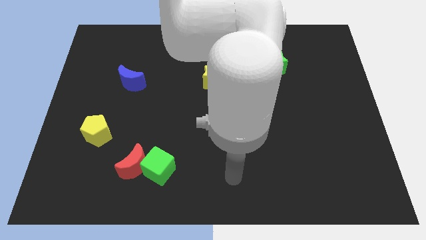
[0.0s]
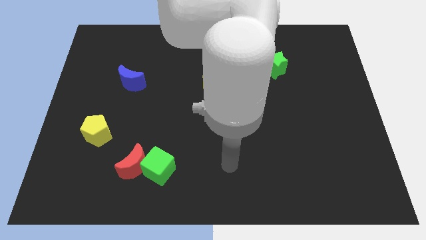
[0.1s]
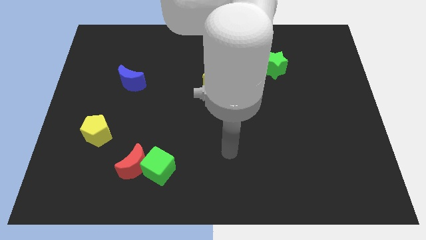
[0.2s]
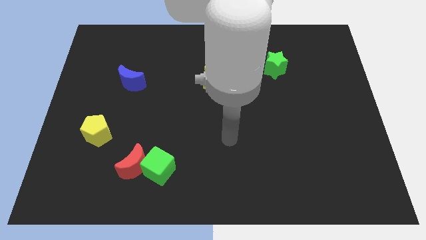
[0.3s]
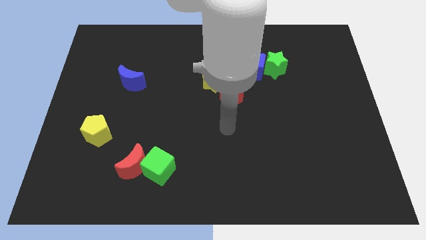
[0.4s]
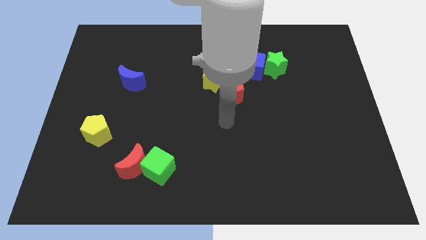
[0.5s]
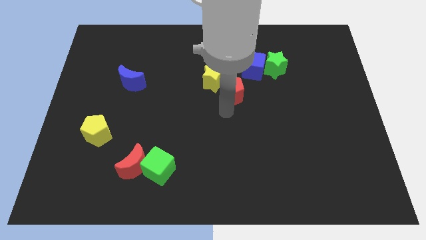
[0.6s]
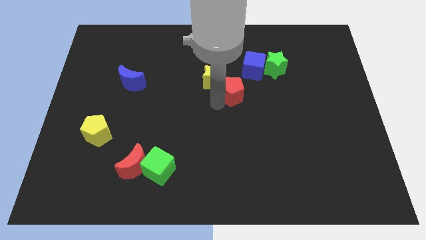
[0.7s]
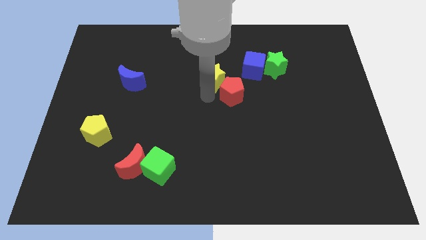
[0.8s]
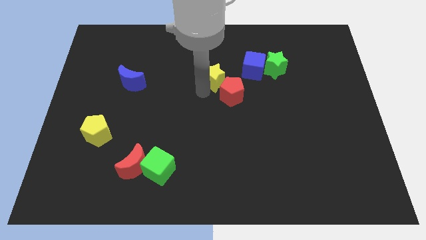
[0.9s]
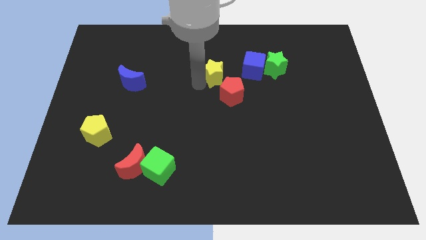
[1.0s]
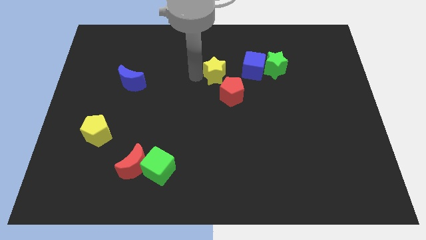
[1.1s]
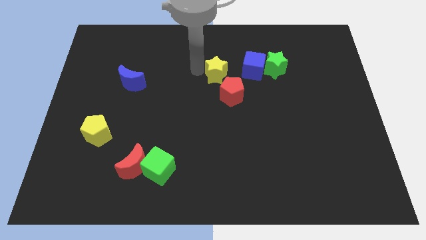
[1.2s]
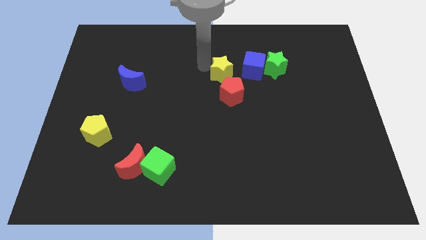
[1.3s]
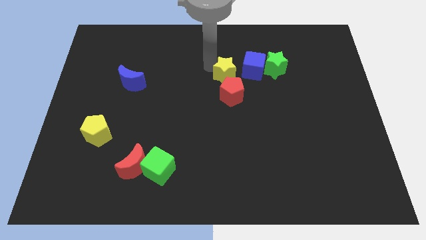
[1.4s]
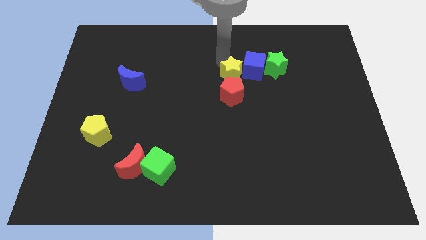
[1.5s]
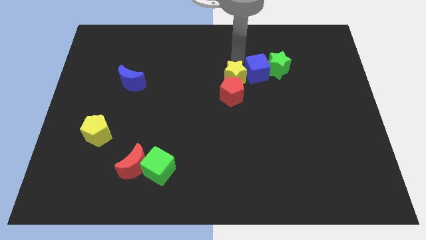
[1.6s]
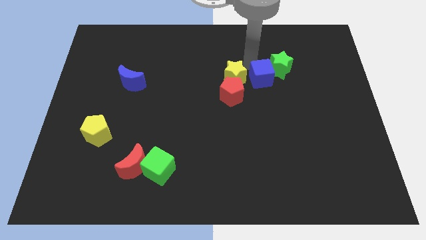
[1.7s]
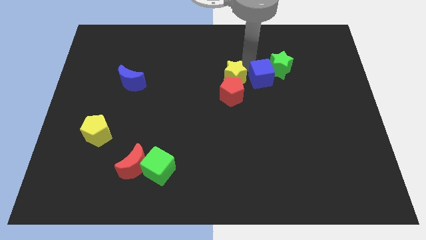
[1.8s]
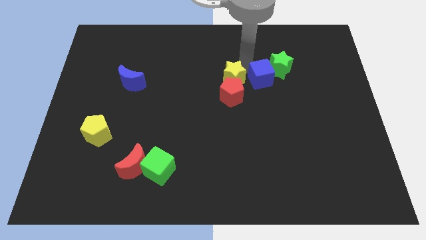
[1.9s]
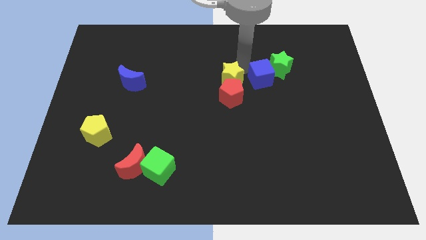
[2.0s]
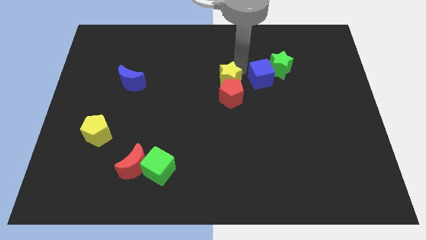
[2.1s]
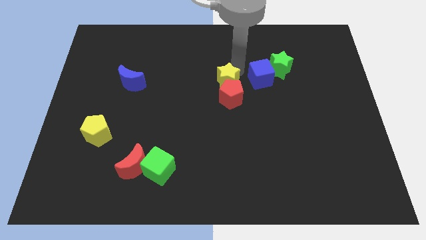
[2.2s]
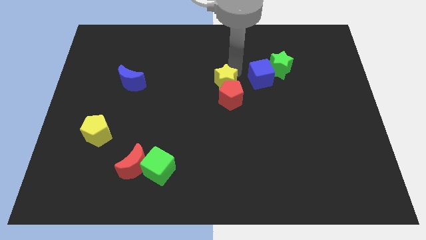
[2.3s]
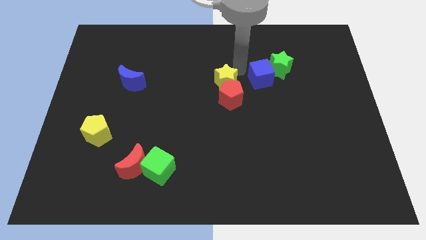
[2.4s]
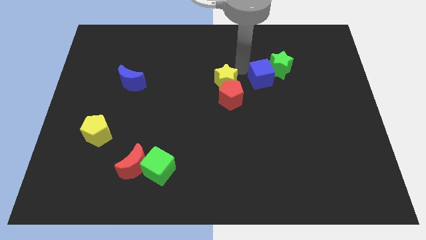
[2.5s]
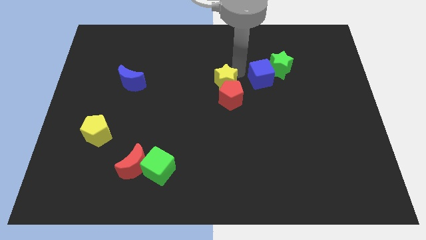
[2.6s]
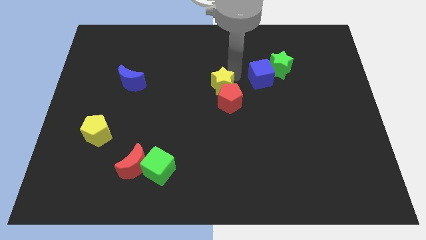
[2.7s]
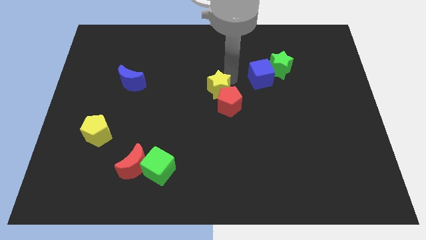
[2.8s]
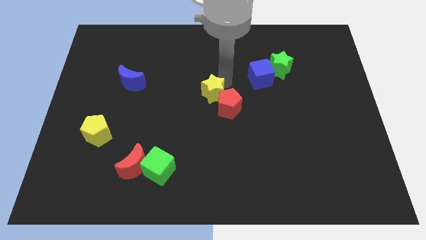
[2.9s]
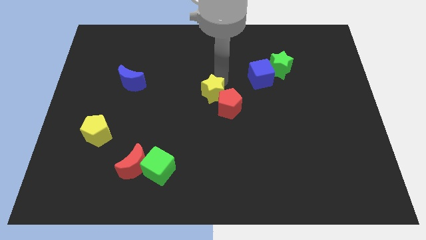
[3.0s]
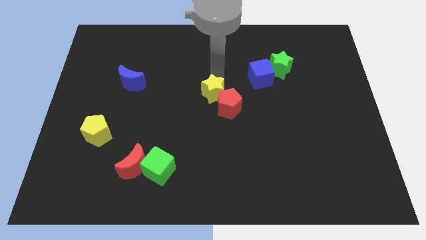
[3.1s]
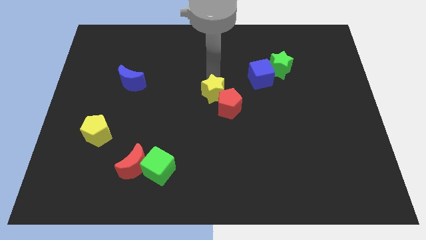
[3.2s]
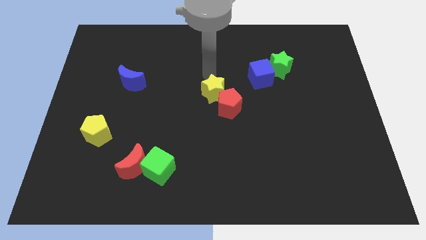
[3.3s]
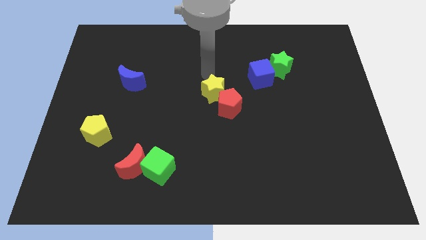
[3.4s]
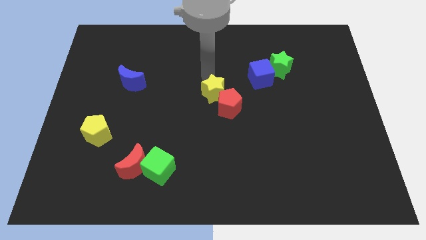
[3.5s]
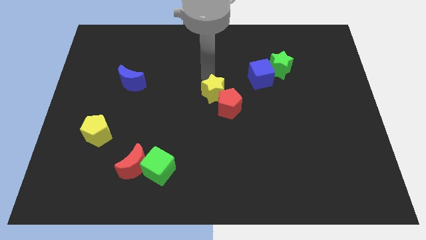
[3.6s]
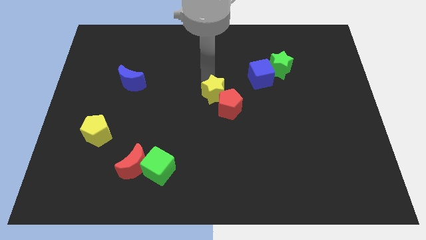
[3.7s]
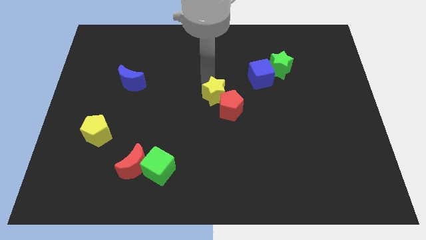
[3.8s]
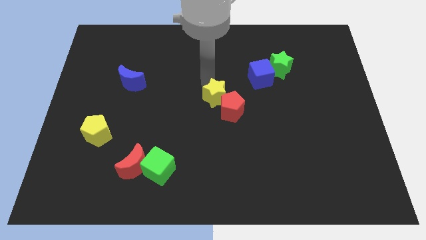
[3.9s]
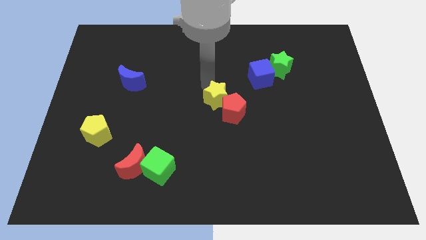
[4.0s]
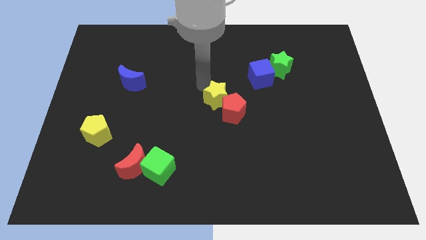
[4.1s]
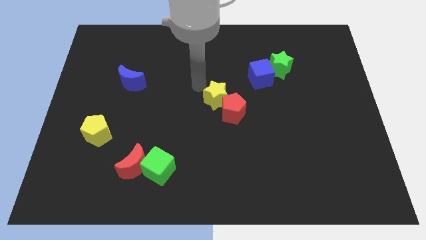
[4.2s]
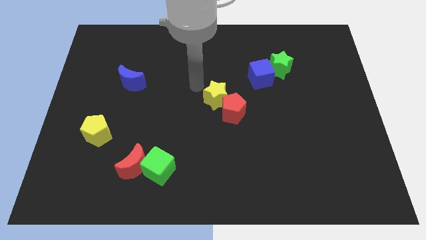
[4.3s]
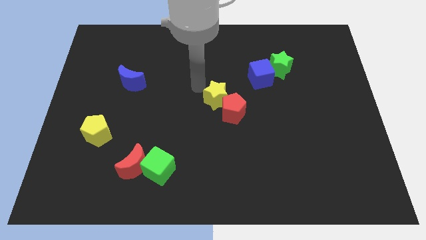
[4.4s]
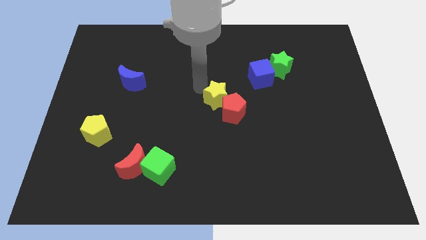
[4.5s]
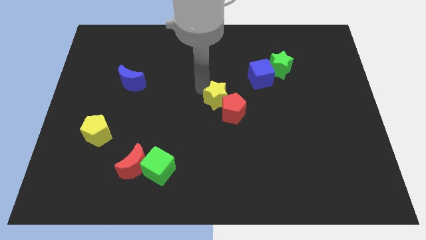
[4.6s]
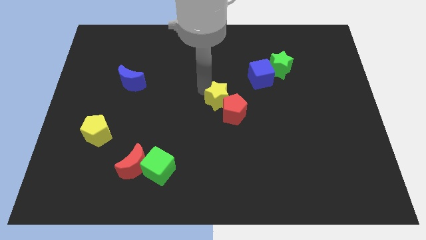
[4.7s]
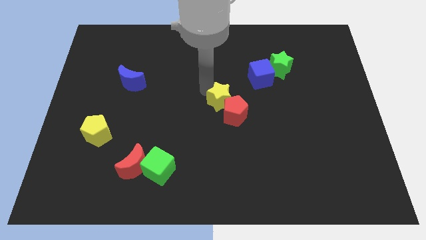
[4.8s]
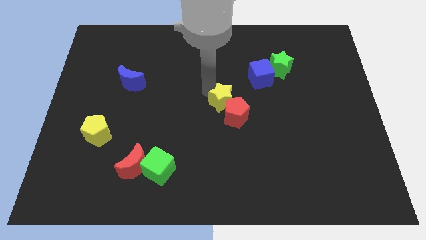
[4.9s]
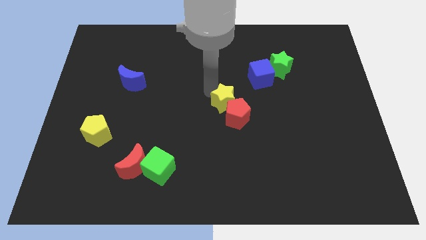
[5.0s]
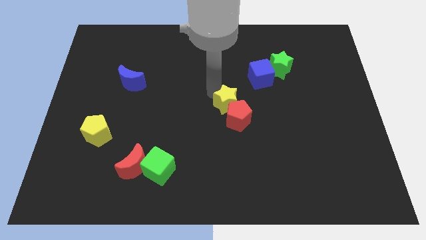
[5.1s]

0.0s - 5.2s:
push the yellow star a little bit diagonally down and to the right

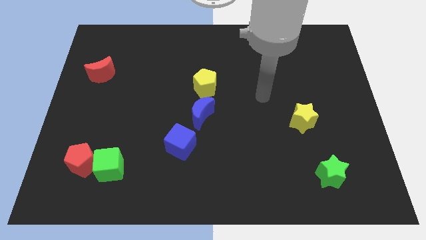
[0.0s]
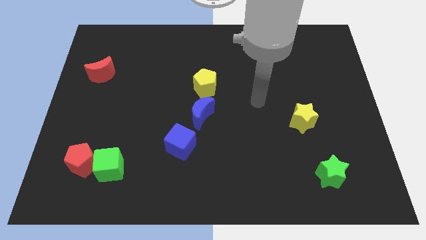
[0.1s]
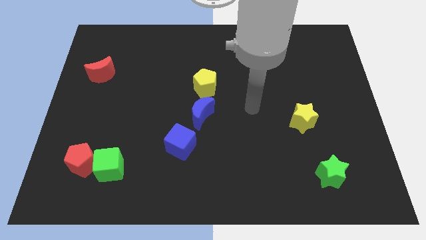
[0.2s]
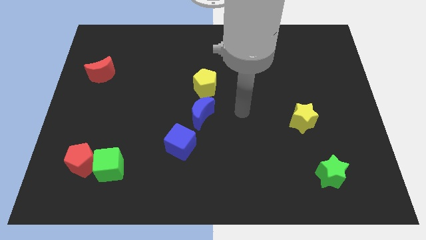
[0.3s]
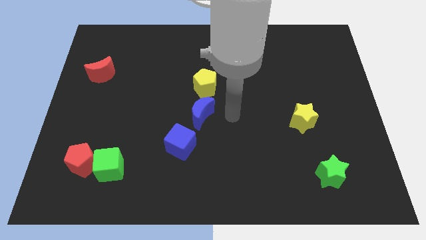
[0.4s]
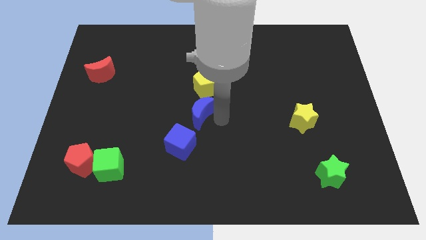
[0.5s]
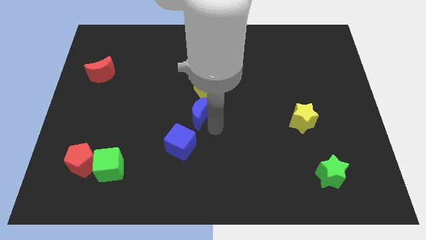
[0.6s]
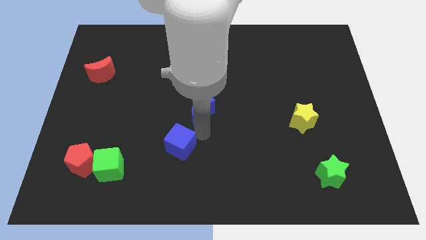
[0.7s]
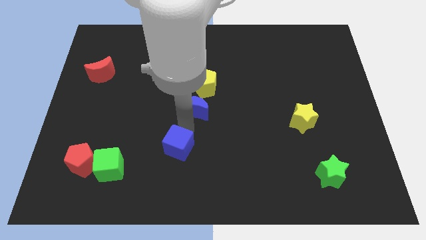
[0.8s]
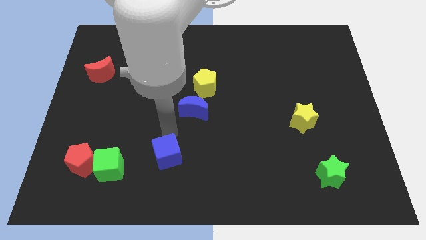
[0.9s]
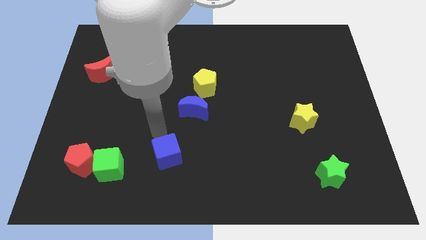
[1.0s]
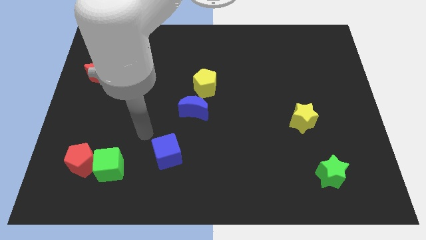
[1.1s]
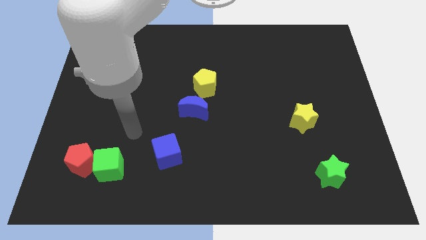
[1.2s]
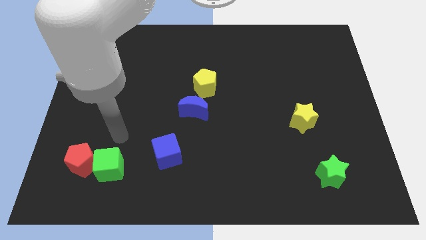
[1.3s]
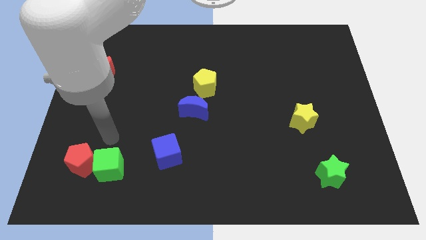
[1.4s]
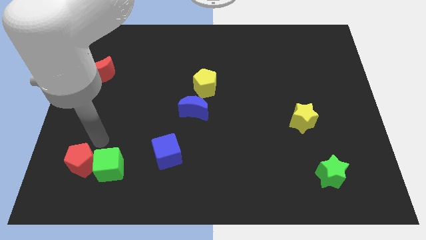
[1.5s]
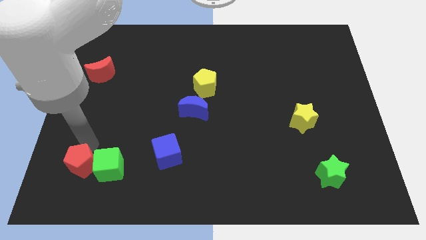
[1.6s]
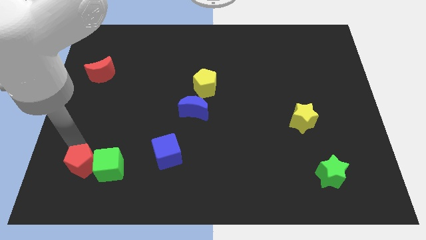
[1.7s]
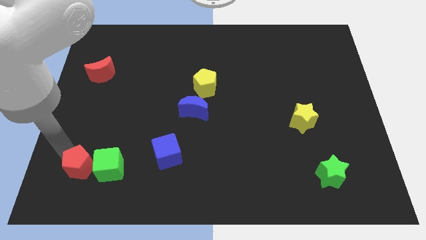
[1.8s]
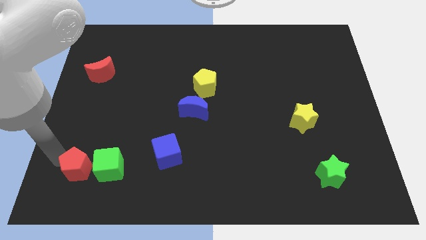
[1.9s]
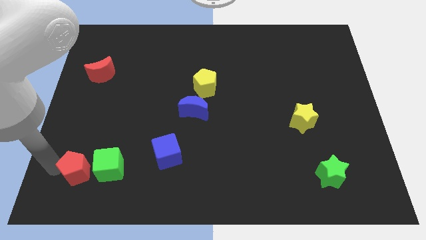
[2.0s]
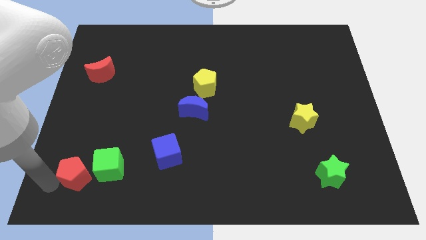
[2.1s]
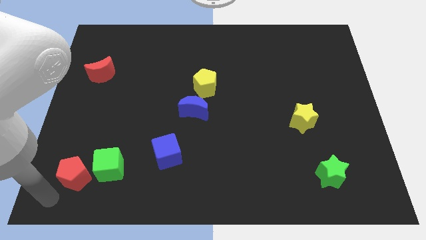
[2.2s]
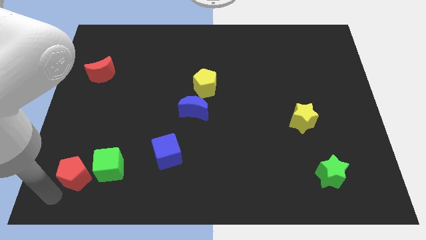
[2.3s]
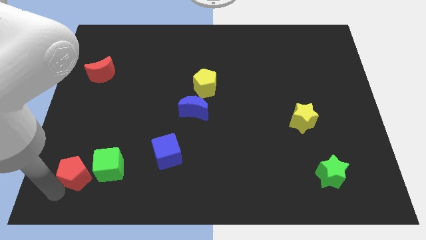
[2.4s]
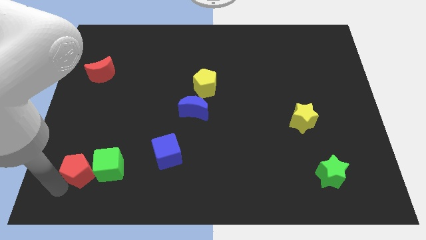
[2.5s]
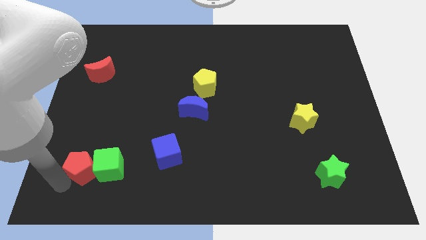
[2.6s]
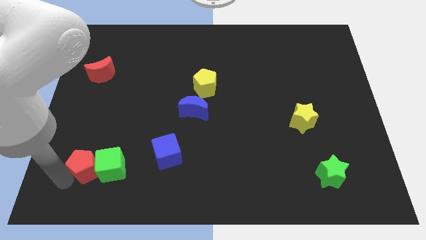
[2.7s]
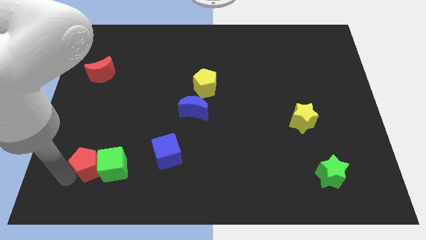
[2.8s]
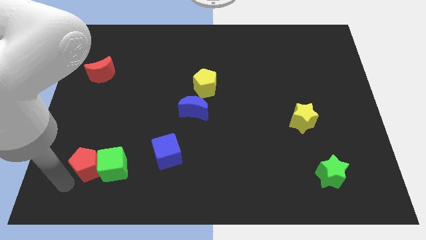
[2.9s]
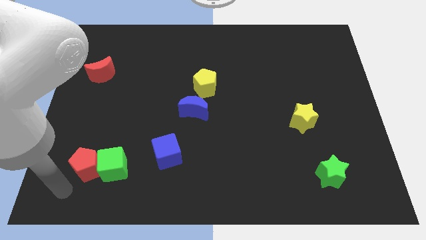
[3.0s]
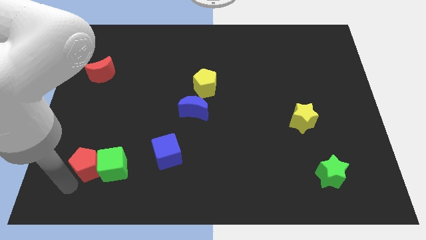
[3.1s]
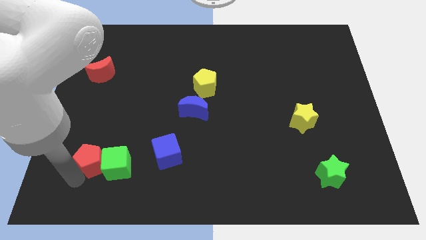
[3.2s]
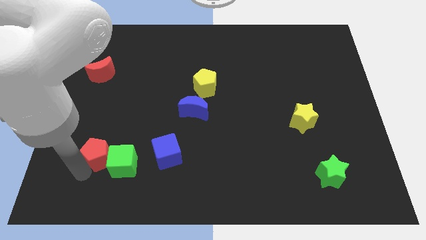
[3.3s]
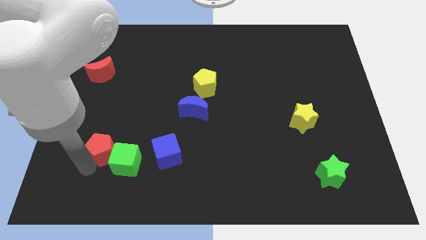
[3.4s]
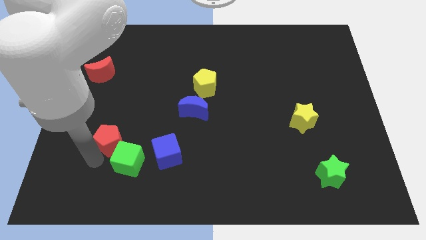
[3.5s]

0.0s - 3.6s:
slightly push the red pentagon diagonally upwards and to the right
